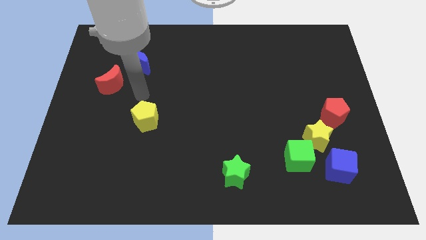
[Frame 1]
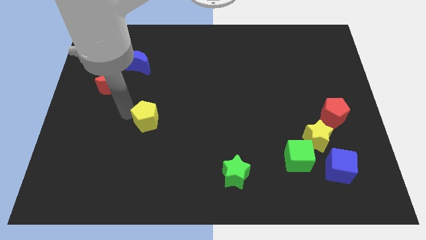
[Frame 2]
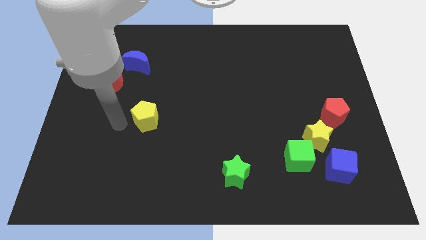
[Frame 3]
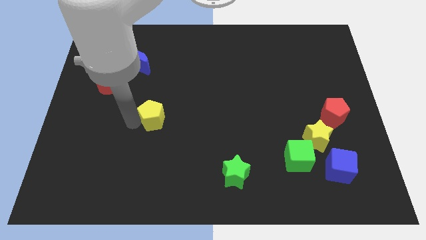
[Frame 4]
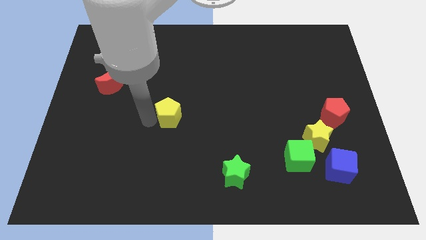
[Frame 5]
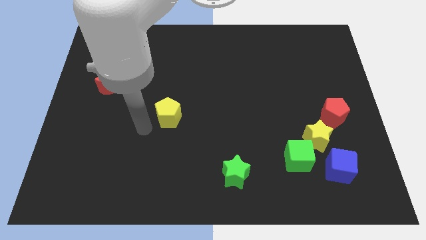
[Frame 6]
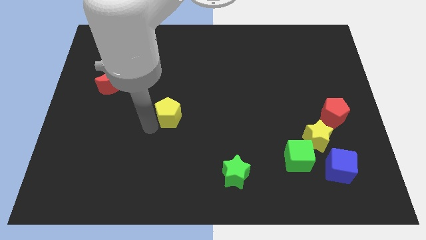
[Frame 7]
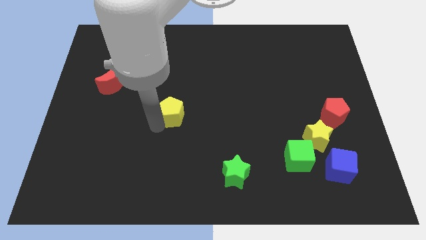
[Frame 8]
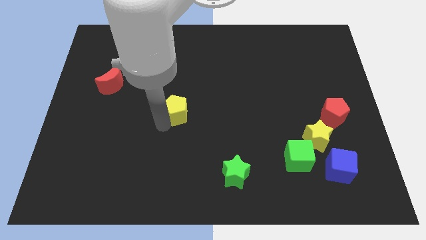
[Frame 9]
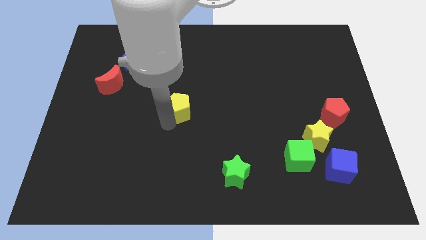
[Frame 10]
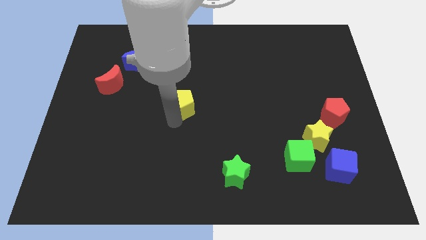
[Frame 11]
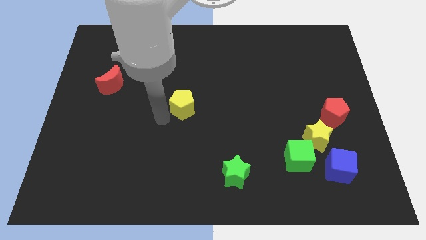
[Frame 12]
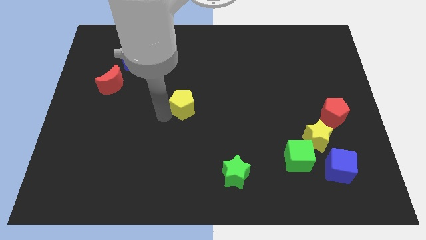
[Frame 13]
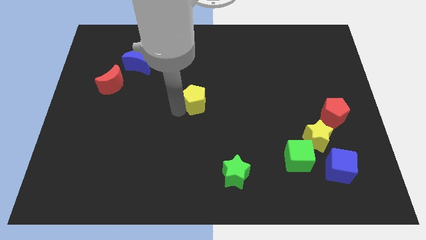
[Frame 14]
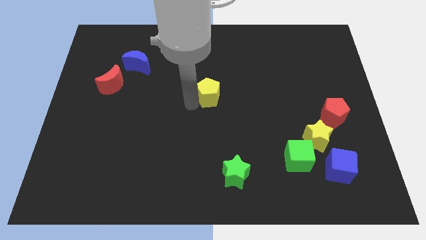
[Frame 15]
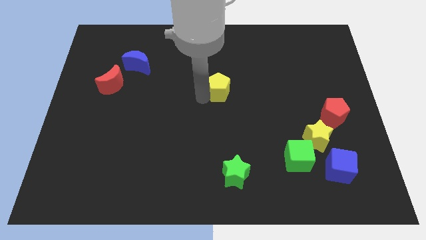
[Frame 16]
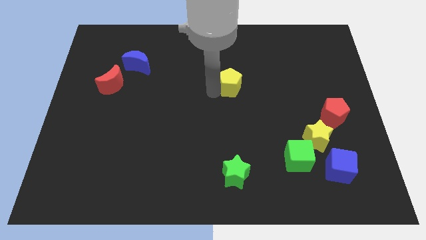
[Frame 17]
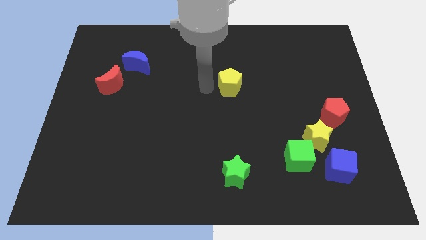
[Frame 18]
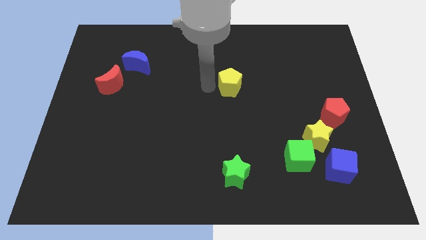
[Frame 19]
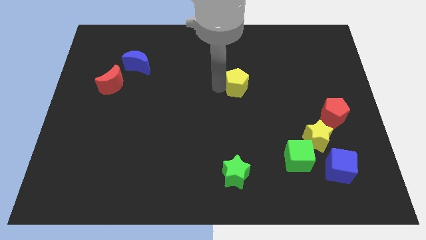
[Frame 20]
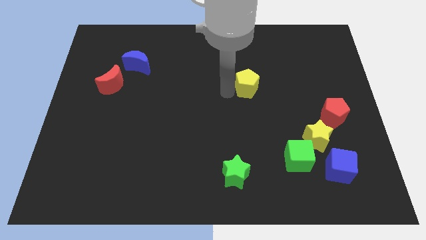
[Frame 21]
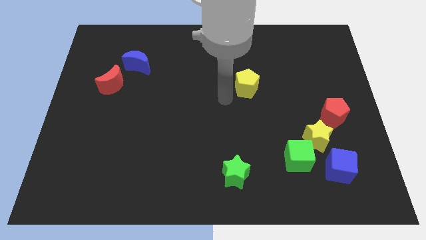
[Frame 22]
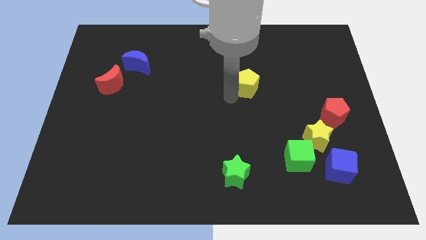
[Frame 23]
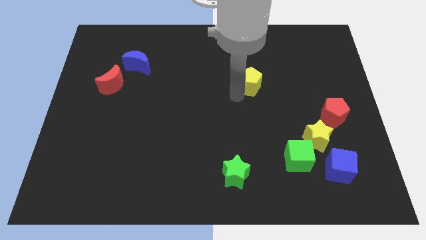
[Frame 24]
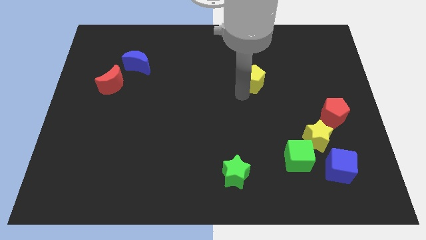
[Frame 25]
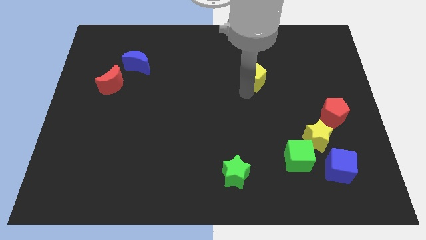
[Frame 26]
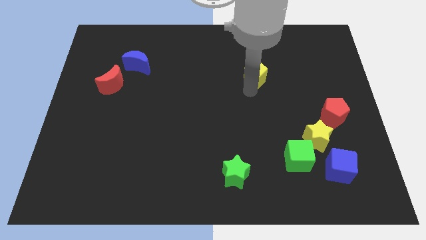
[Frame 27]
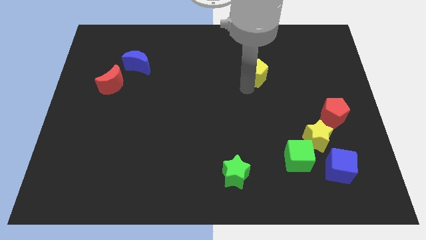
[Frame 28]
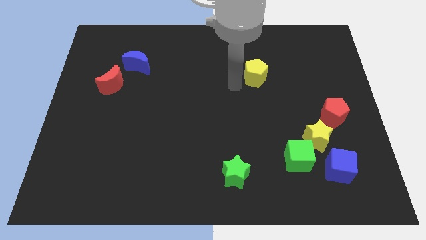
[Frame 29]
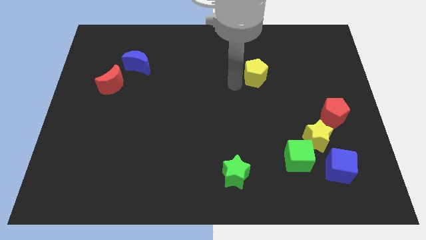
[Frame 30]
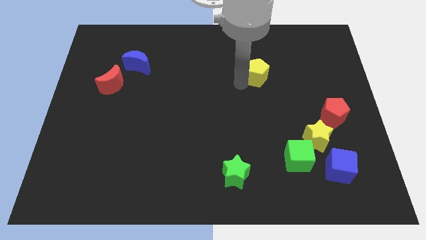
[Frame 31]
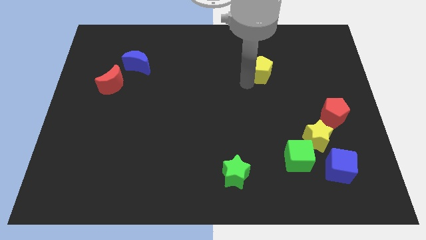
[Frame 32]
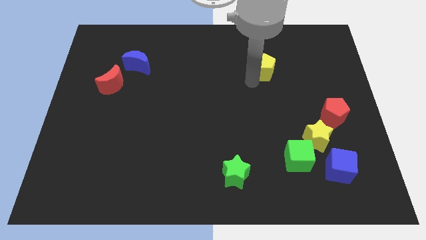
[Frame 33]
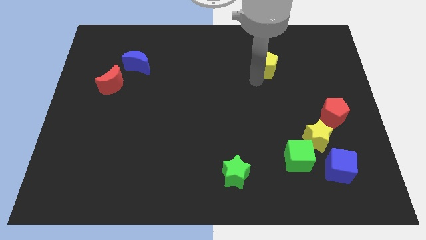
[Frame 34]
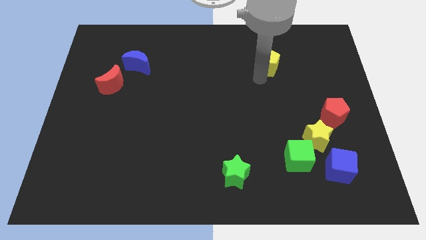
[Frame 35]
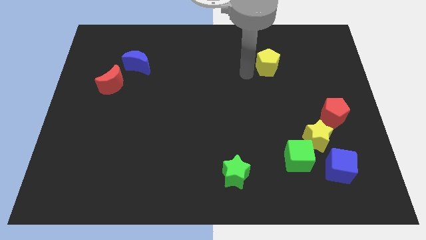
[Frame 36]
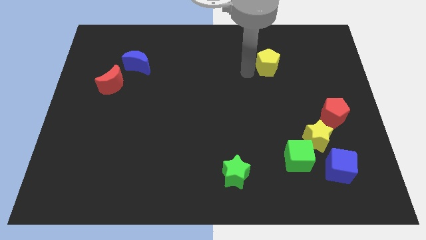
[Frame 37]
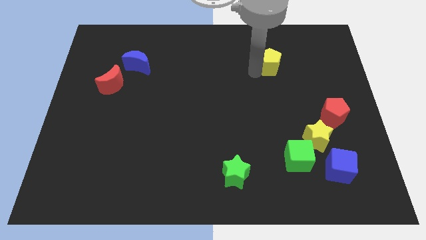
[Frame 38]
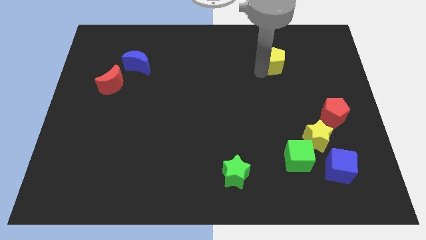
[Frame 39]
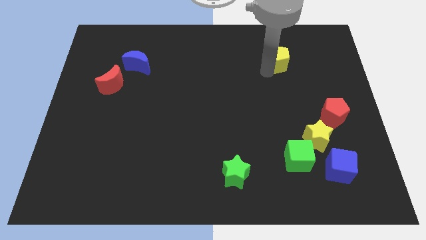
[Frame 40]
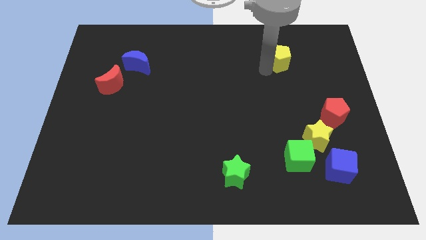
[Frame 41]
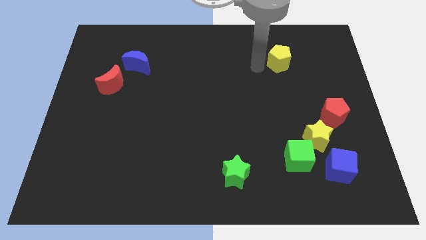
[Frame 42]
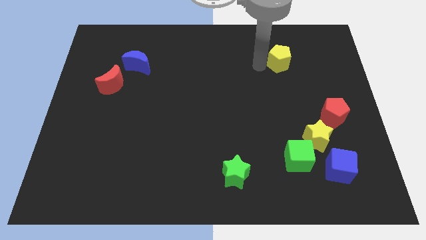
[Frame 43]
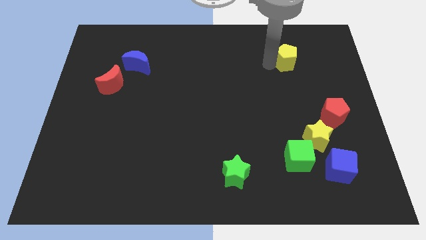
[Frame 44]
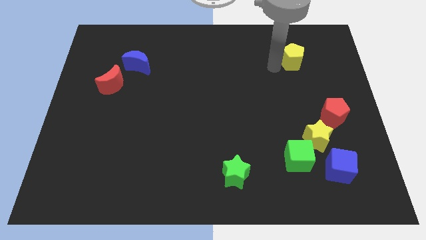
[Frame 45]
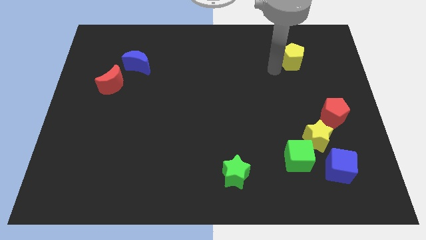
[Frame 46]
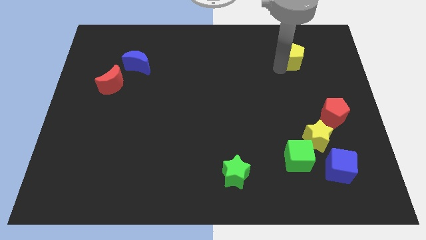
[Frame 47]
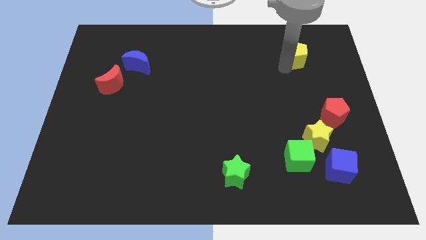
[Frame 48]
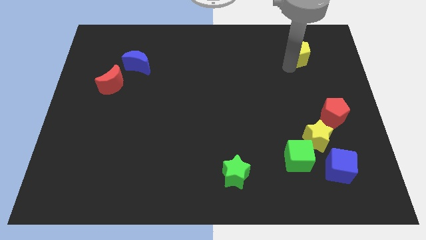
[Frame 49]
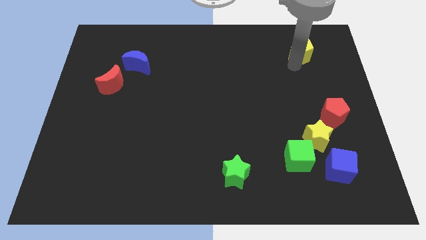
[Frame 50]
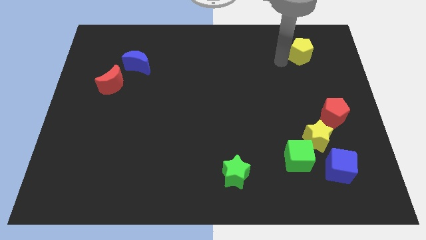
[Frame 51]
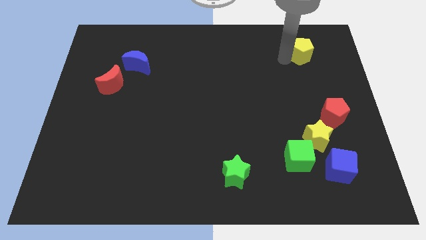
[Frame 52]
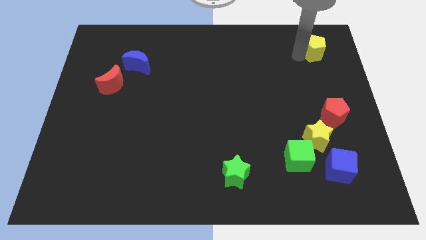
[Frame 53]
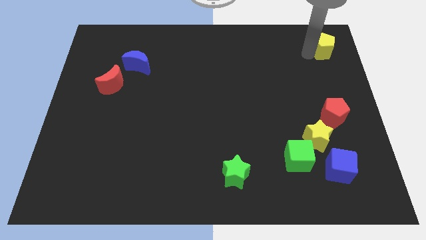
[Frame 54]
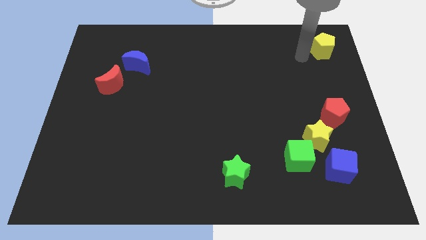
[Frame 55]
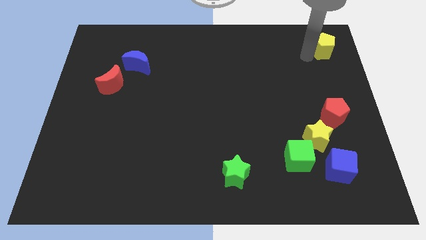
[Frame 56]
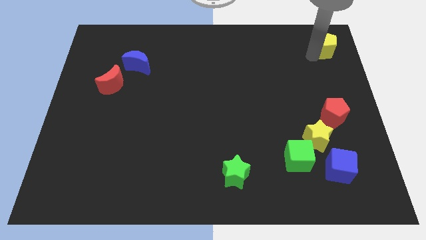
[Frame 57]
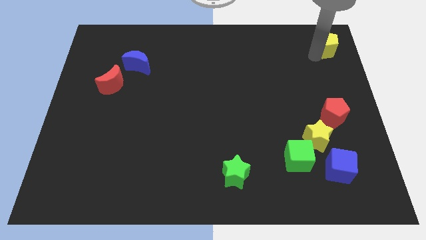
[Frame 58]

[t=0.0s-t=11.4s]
slide the yellow pentagon to the top right corner
